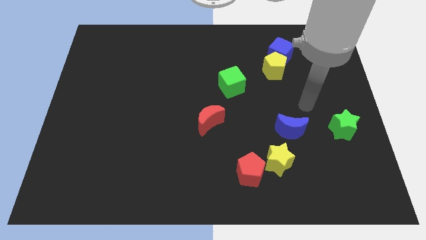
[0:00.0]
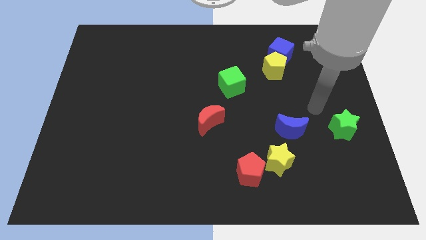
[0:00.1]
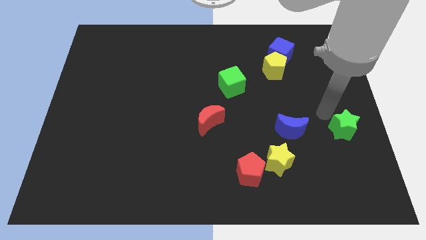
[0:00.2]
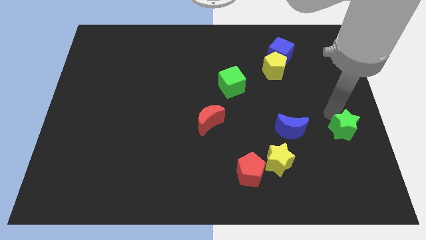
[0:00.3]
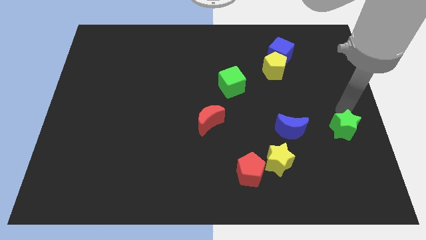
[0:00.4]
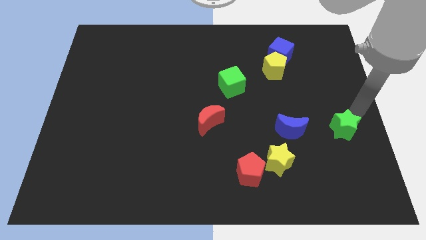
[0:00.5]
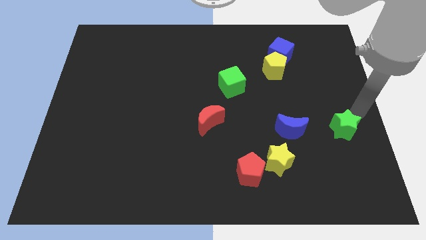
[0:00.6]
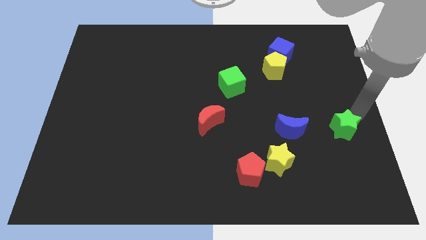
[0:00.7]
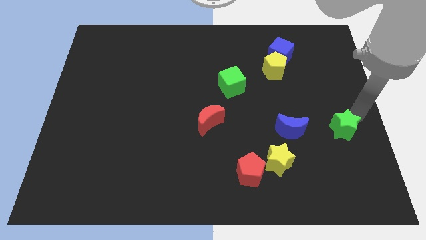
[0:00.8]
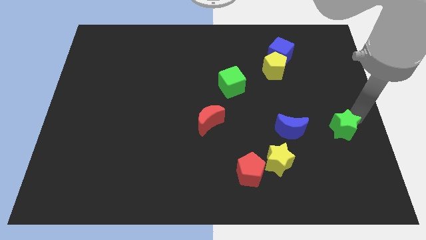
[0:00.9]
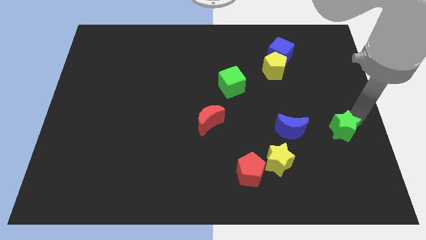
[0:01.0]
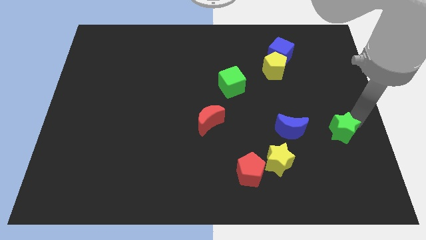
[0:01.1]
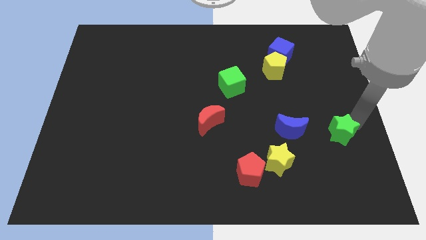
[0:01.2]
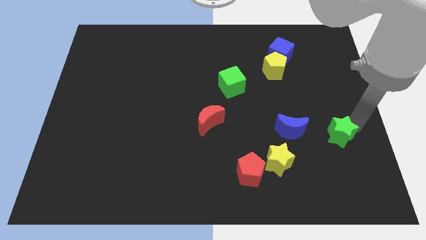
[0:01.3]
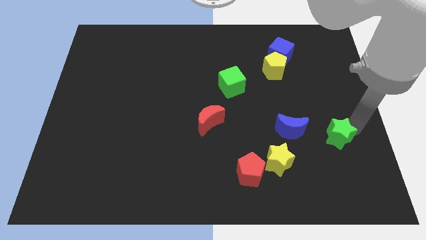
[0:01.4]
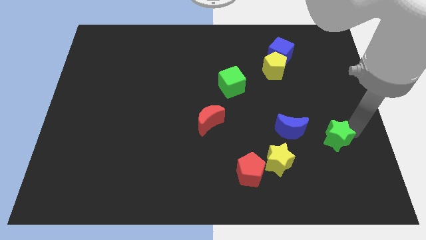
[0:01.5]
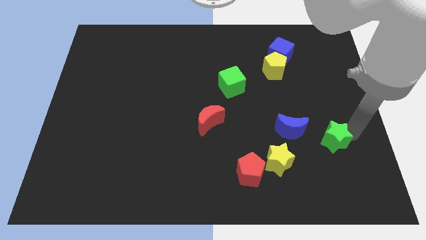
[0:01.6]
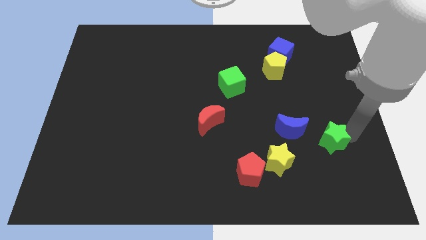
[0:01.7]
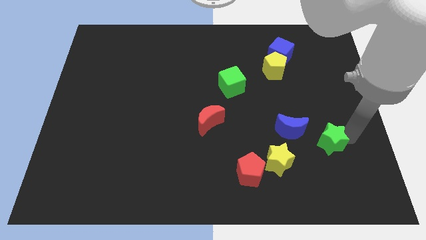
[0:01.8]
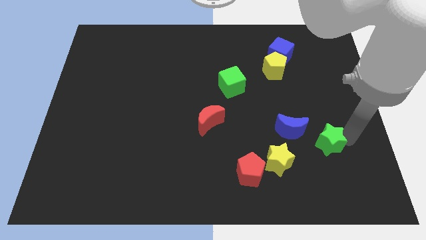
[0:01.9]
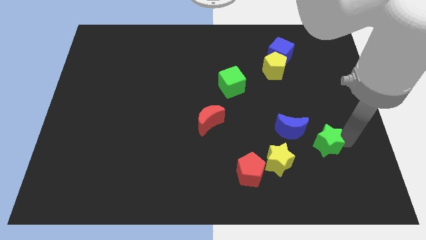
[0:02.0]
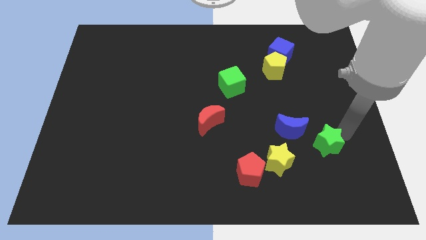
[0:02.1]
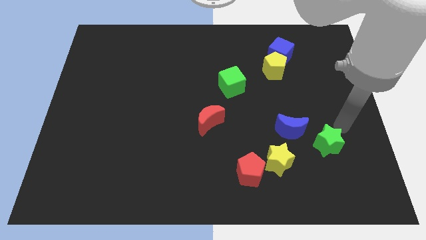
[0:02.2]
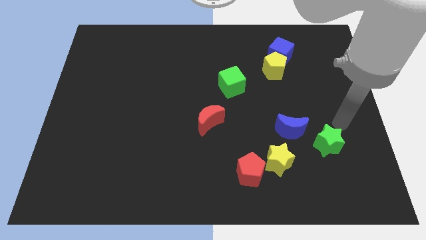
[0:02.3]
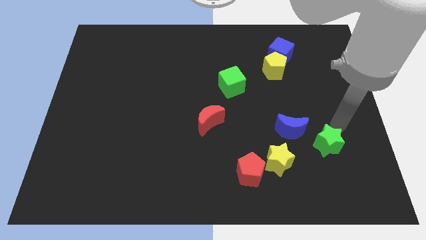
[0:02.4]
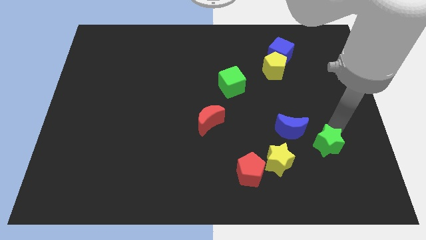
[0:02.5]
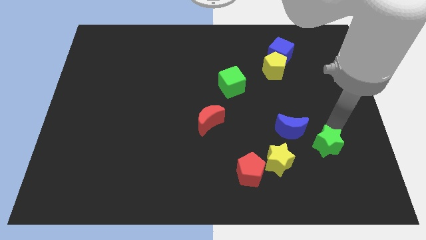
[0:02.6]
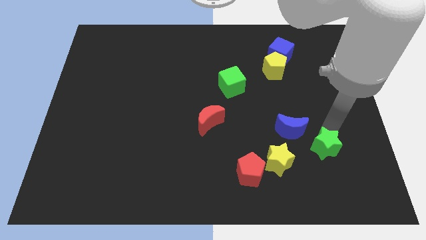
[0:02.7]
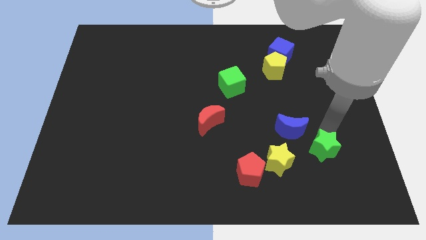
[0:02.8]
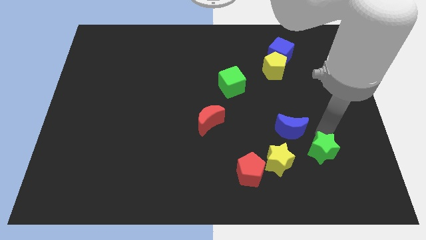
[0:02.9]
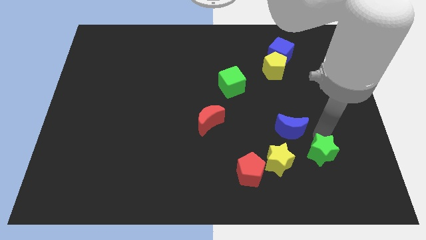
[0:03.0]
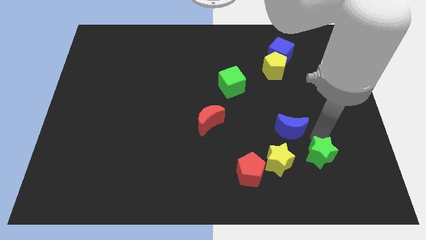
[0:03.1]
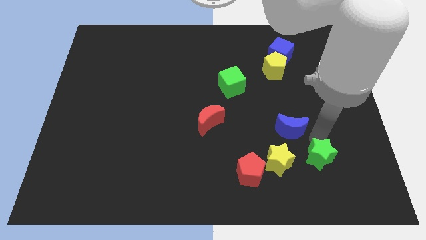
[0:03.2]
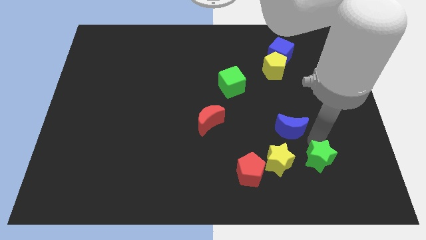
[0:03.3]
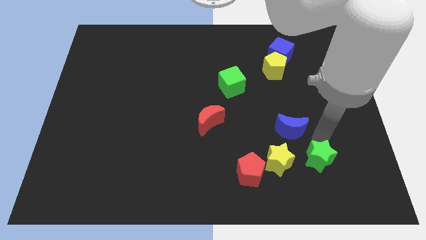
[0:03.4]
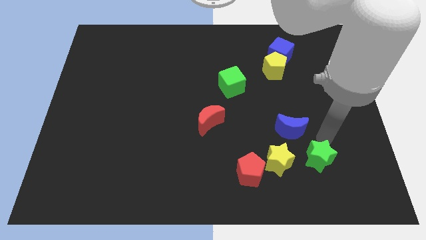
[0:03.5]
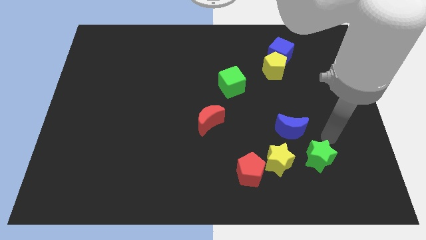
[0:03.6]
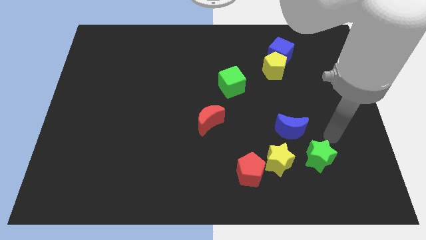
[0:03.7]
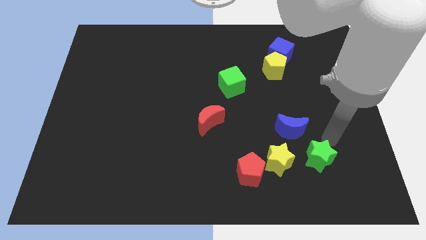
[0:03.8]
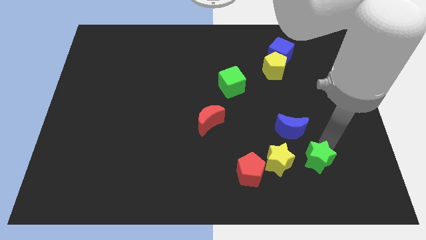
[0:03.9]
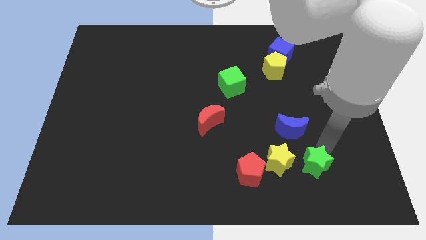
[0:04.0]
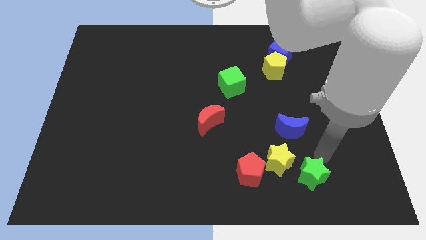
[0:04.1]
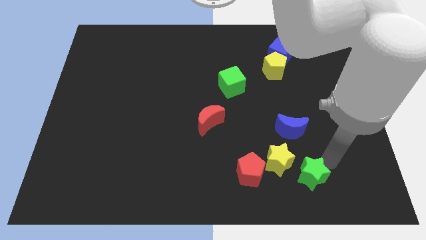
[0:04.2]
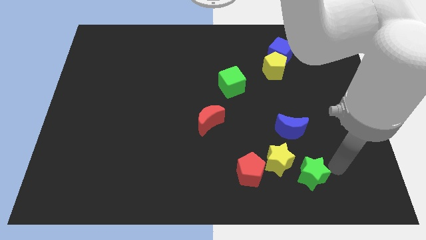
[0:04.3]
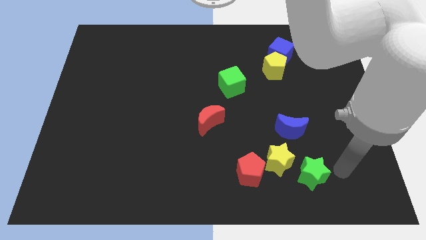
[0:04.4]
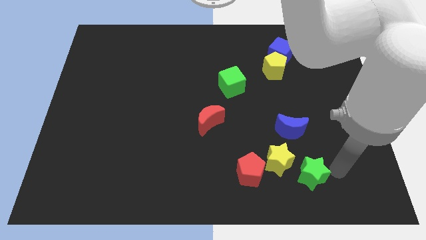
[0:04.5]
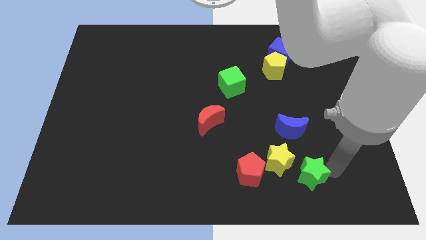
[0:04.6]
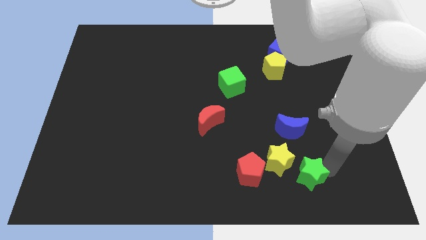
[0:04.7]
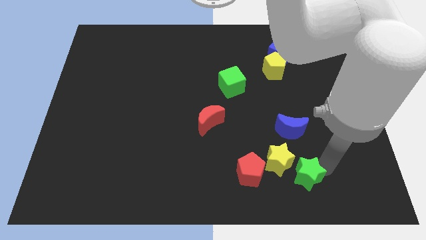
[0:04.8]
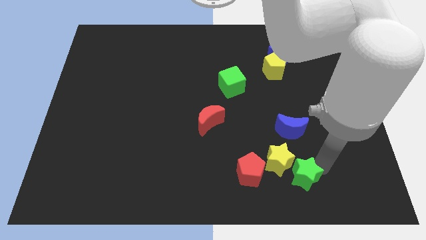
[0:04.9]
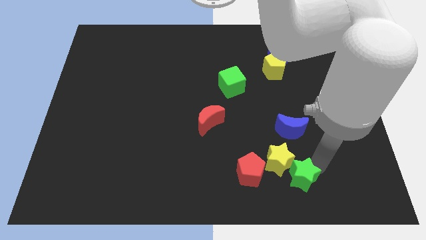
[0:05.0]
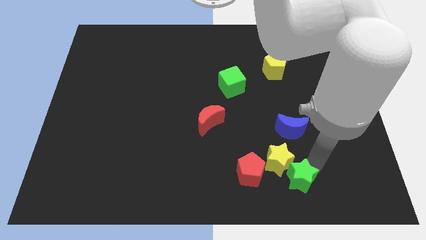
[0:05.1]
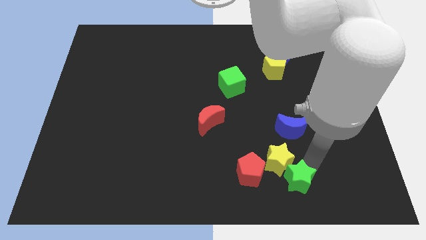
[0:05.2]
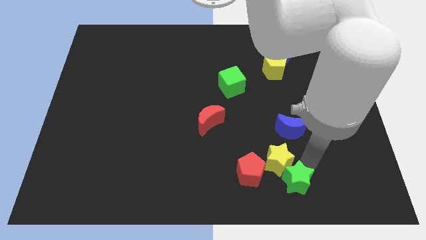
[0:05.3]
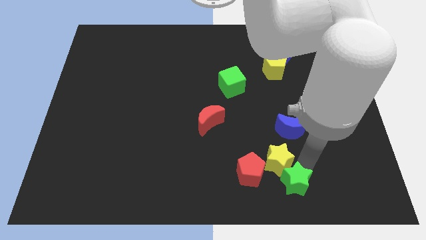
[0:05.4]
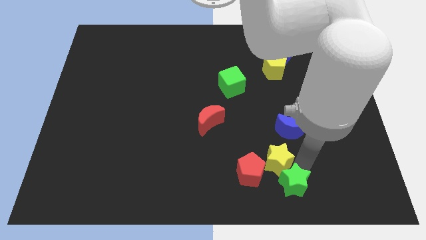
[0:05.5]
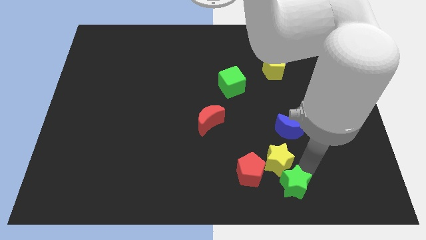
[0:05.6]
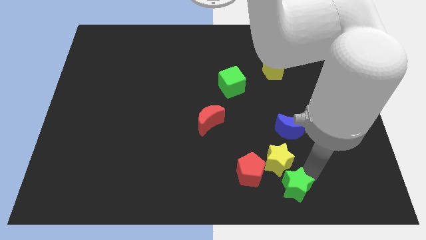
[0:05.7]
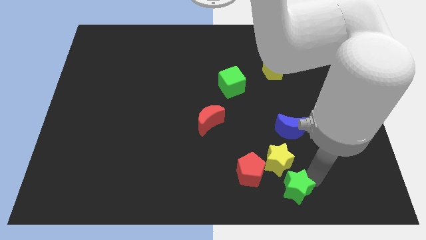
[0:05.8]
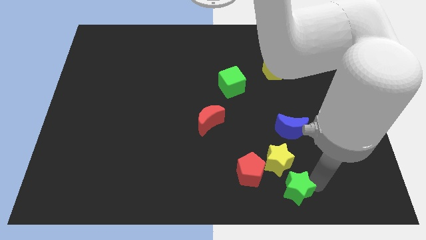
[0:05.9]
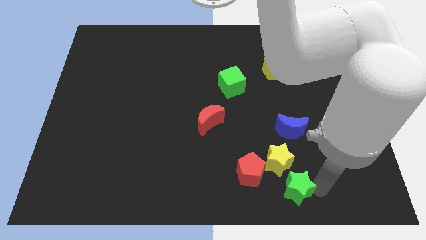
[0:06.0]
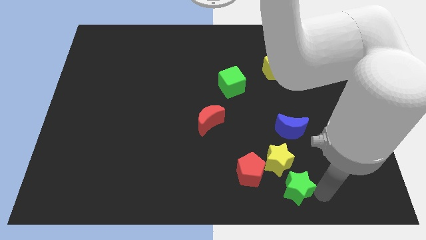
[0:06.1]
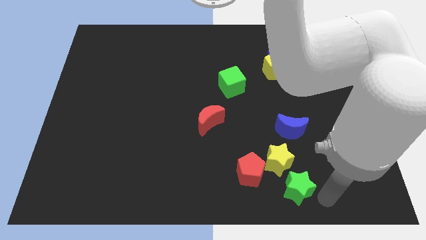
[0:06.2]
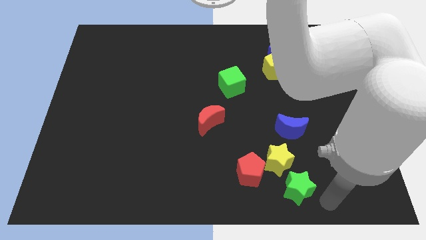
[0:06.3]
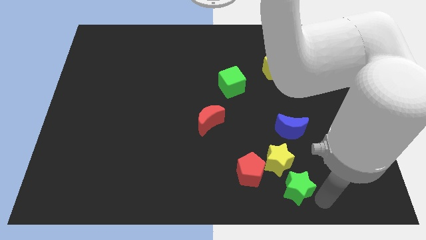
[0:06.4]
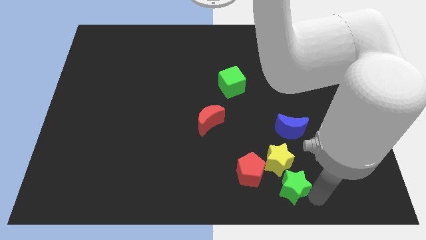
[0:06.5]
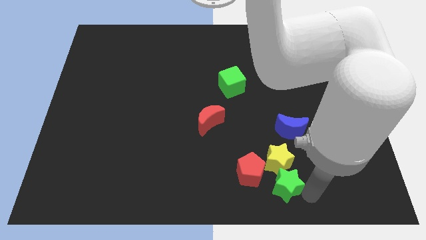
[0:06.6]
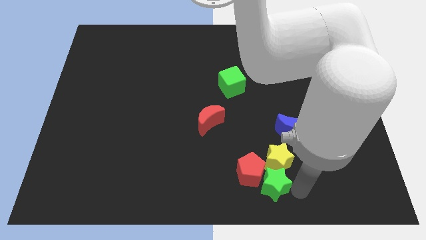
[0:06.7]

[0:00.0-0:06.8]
put the green star towards the red pentagon
